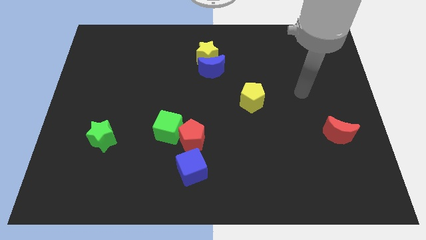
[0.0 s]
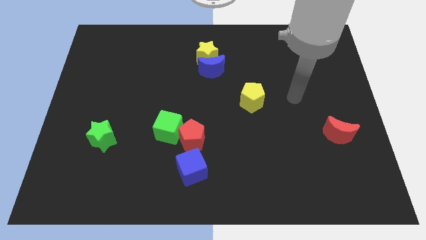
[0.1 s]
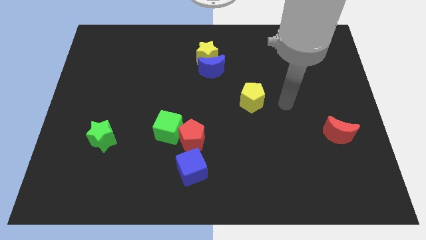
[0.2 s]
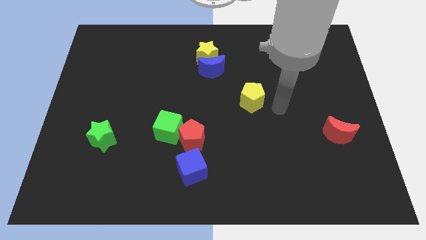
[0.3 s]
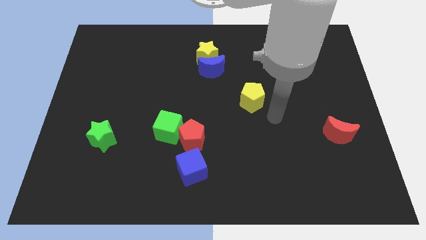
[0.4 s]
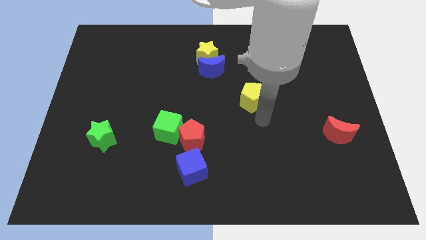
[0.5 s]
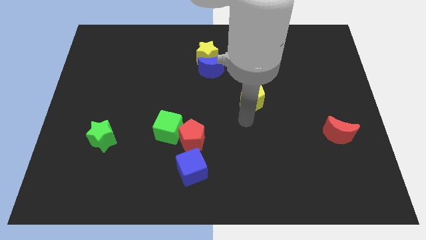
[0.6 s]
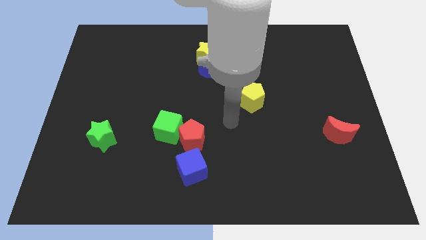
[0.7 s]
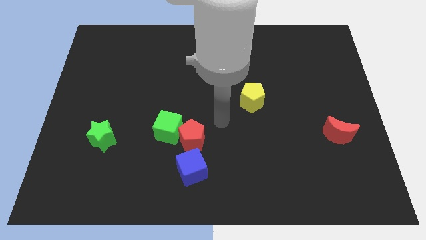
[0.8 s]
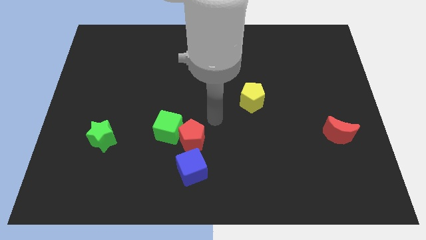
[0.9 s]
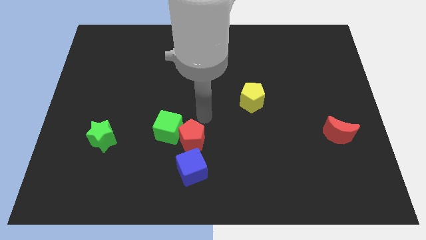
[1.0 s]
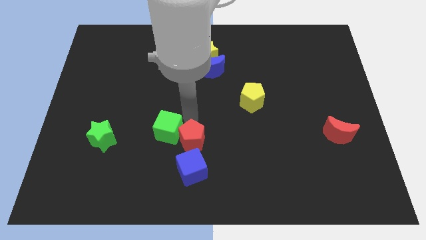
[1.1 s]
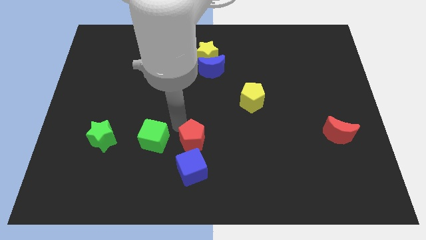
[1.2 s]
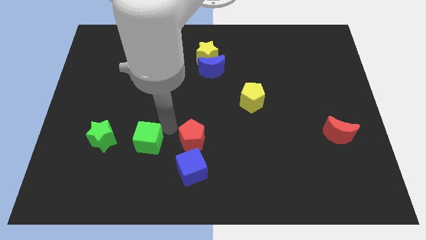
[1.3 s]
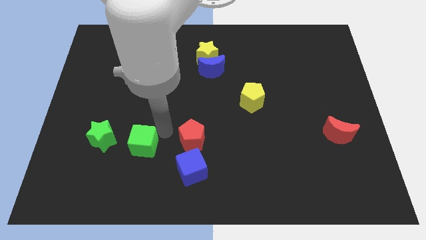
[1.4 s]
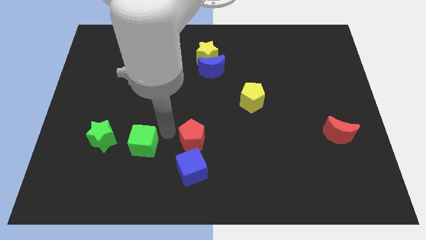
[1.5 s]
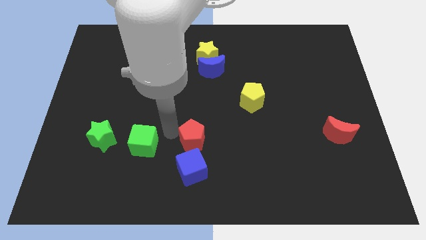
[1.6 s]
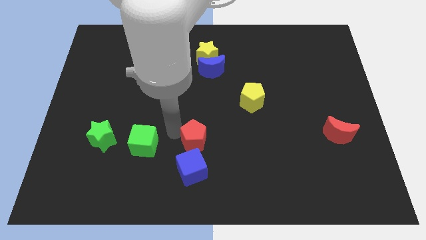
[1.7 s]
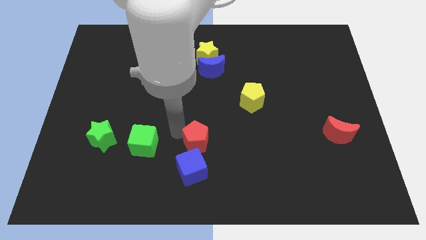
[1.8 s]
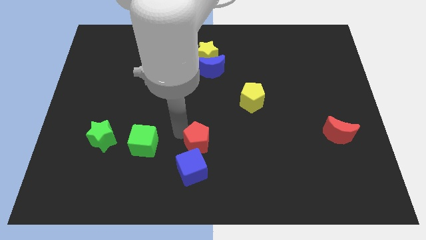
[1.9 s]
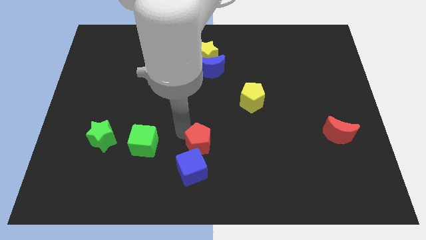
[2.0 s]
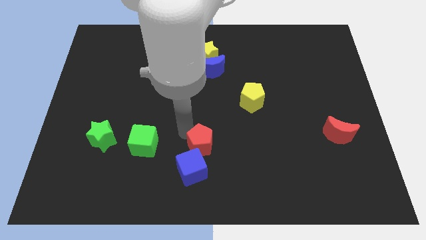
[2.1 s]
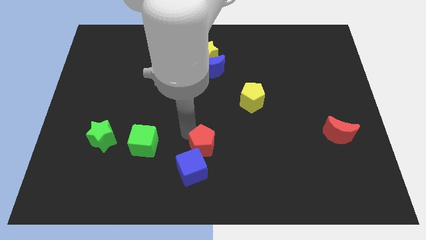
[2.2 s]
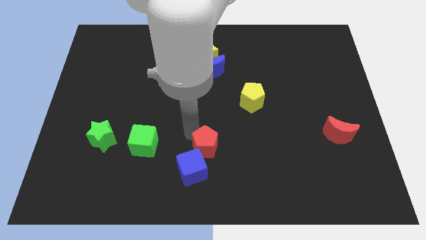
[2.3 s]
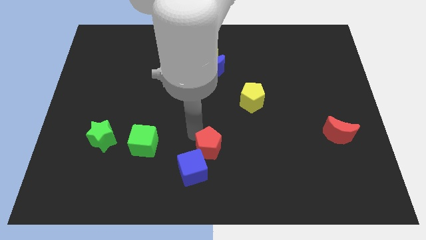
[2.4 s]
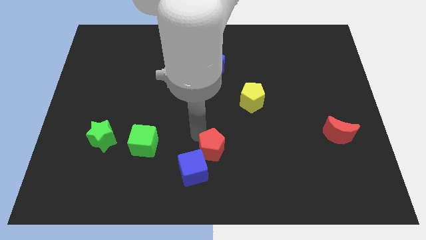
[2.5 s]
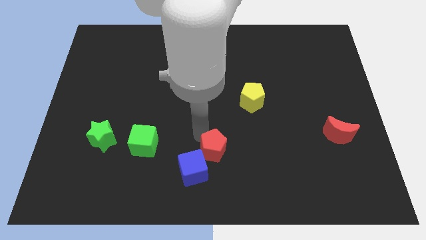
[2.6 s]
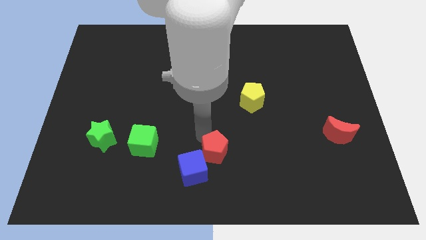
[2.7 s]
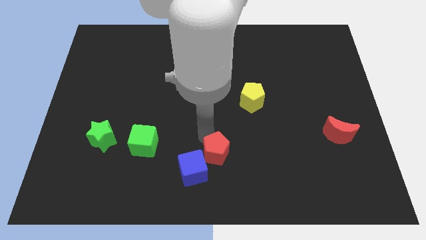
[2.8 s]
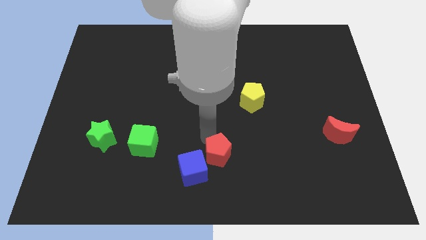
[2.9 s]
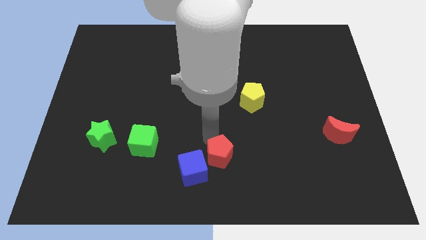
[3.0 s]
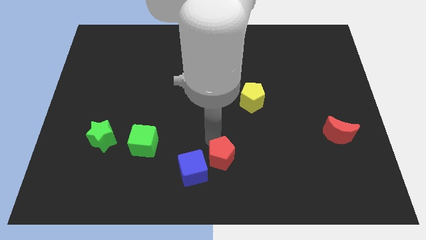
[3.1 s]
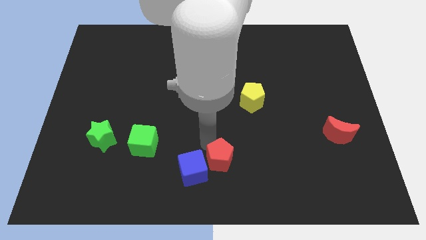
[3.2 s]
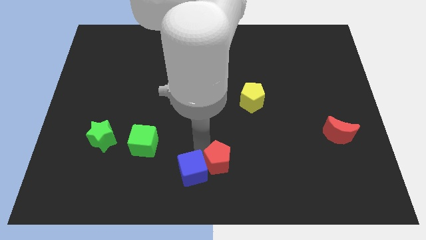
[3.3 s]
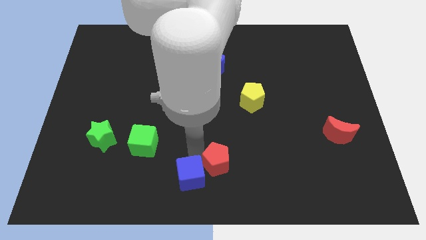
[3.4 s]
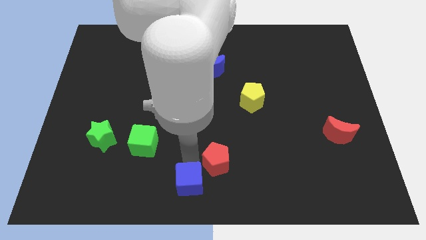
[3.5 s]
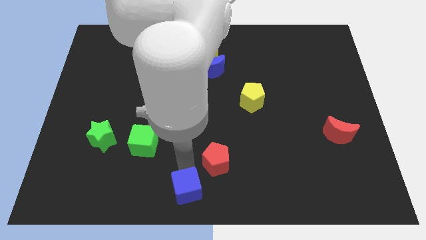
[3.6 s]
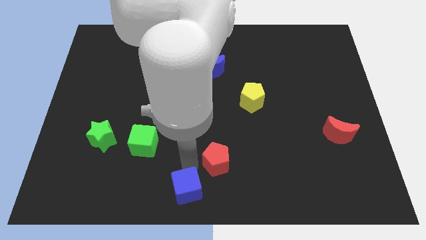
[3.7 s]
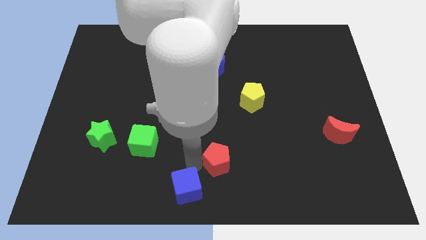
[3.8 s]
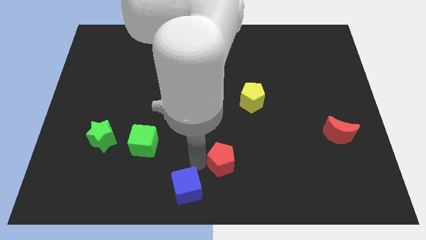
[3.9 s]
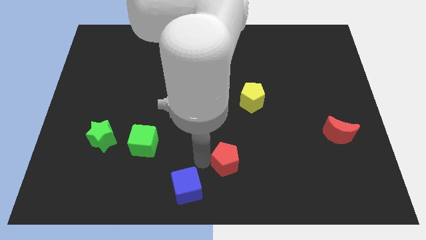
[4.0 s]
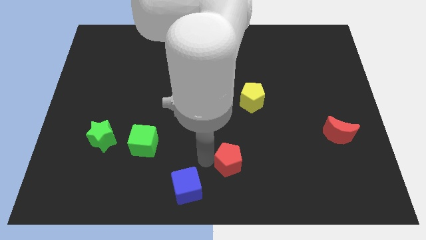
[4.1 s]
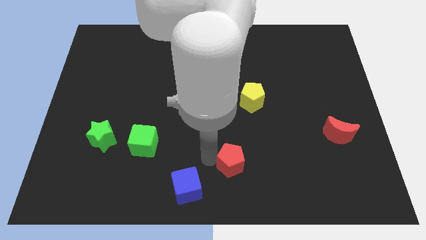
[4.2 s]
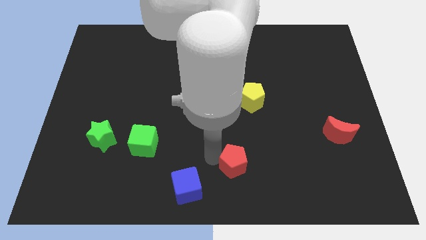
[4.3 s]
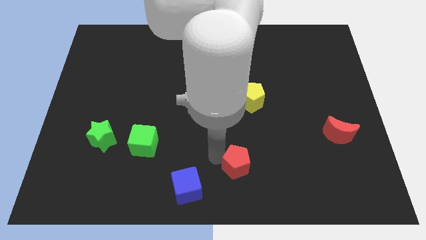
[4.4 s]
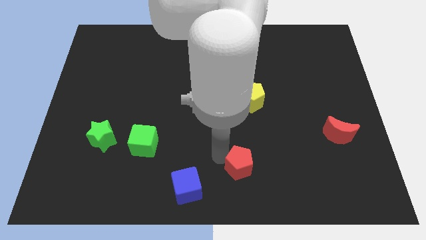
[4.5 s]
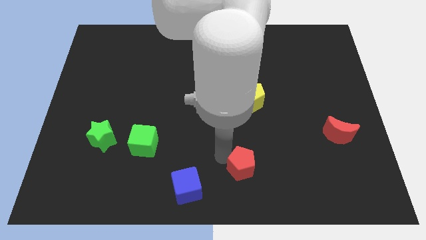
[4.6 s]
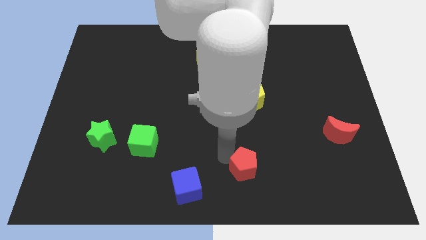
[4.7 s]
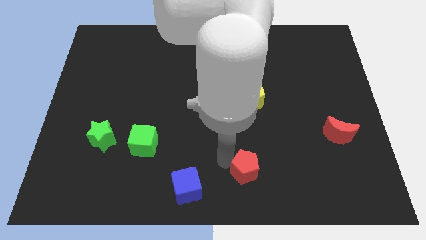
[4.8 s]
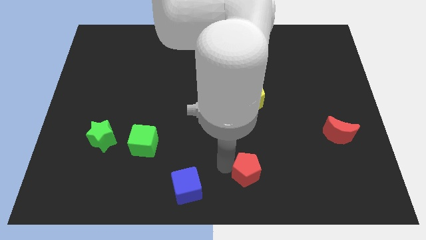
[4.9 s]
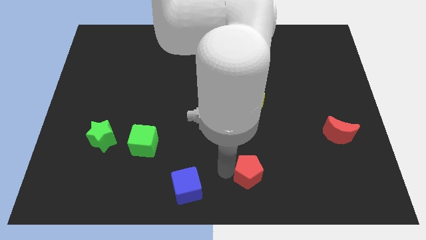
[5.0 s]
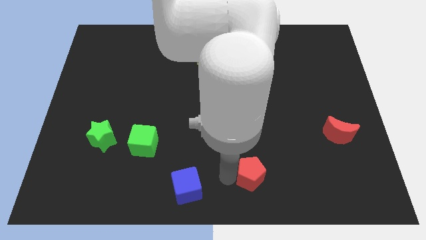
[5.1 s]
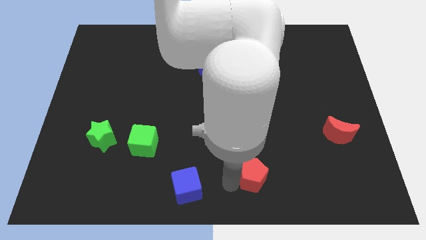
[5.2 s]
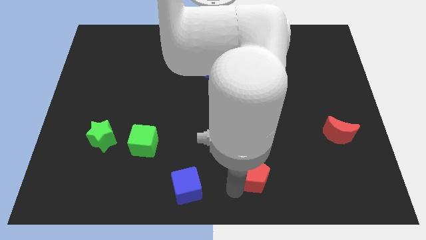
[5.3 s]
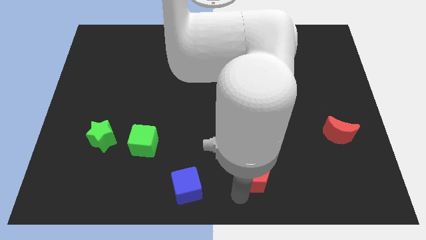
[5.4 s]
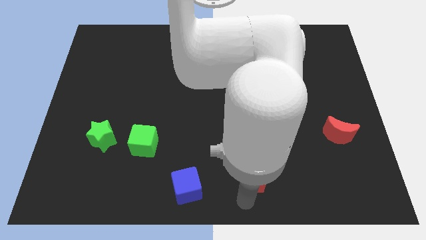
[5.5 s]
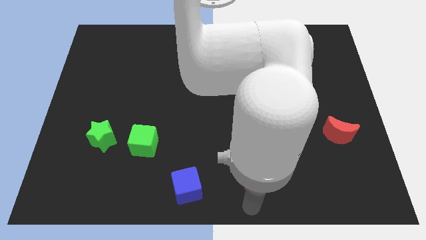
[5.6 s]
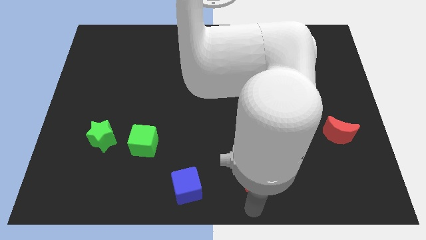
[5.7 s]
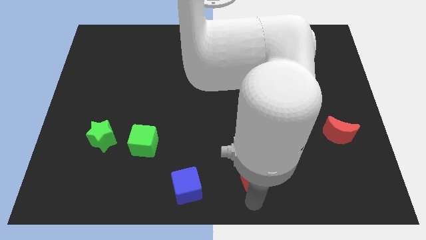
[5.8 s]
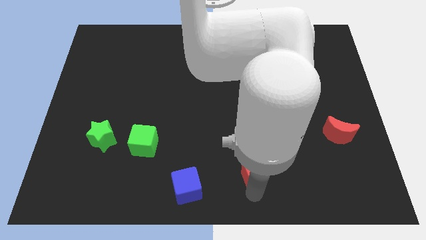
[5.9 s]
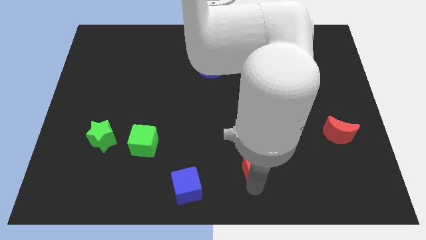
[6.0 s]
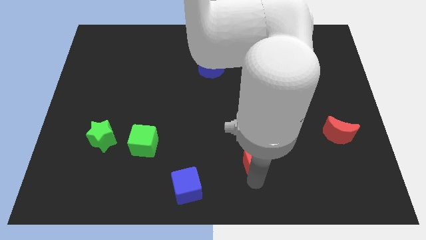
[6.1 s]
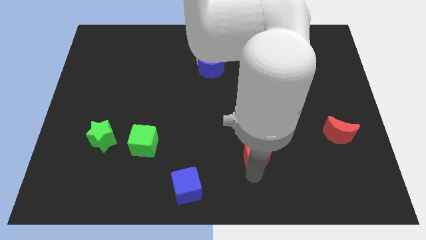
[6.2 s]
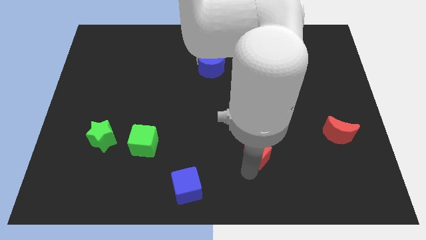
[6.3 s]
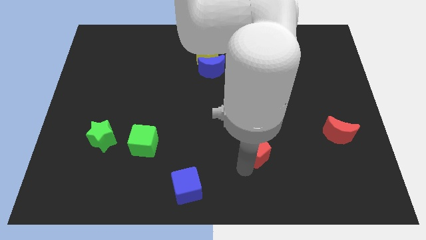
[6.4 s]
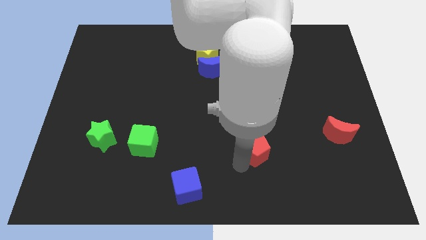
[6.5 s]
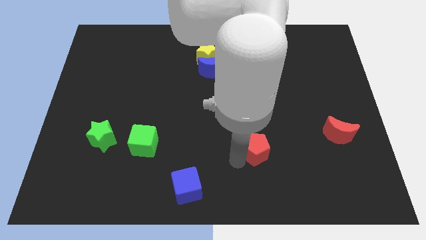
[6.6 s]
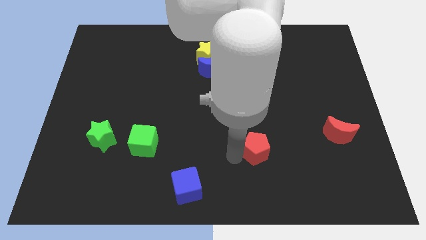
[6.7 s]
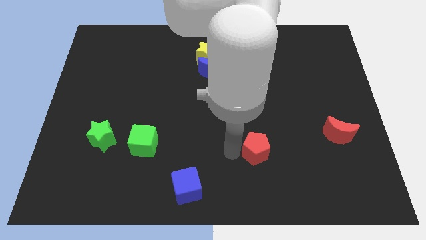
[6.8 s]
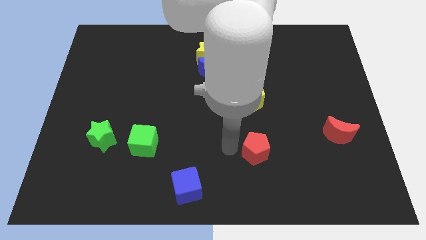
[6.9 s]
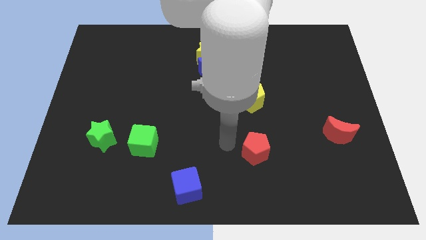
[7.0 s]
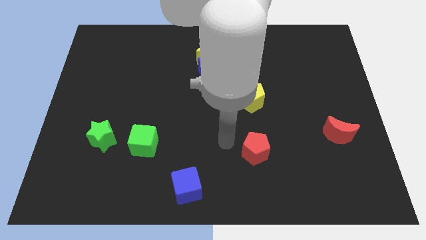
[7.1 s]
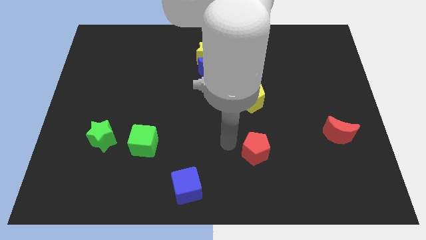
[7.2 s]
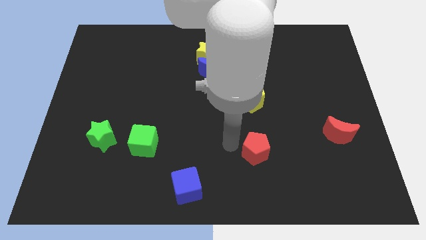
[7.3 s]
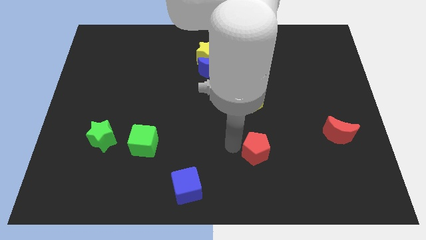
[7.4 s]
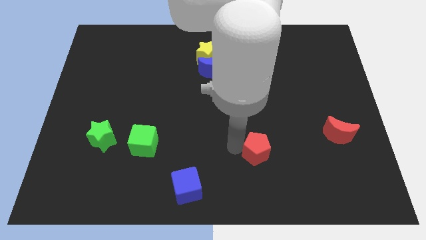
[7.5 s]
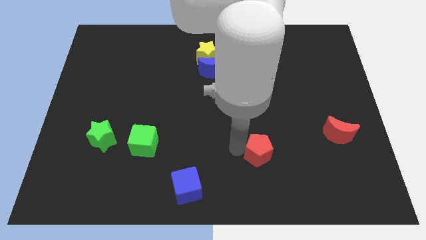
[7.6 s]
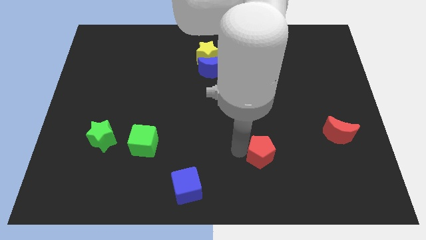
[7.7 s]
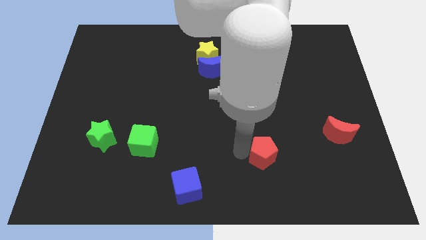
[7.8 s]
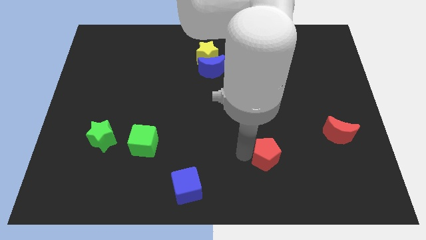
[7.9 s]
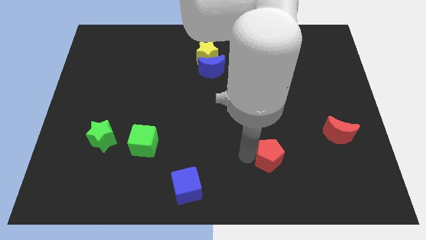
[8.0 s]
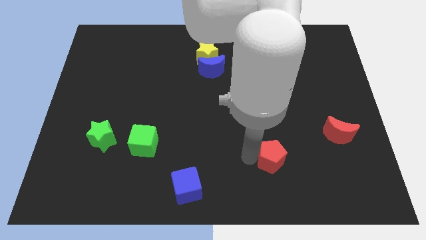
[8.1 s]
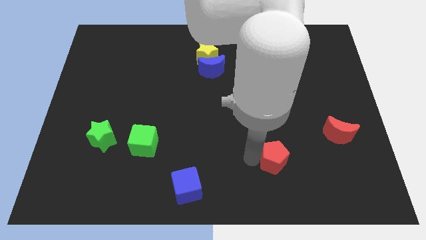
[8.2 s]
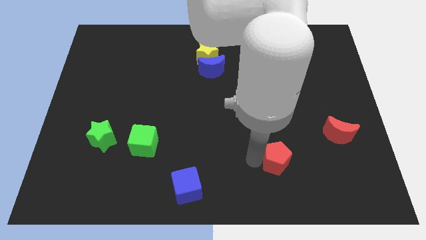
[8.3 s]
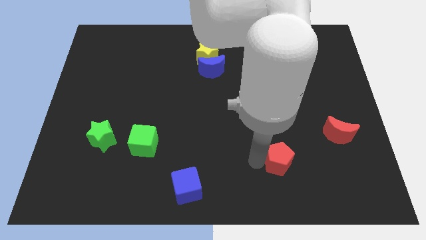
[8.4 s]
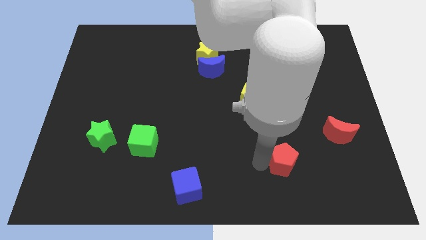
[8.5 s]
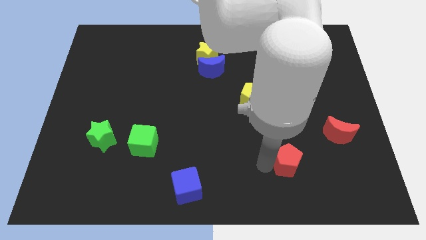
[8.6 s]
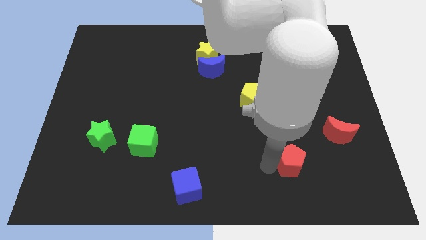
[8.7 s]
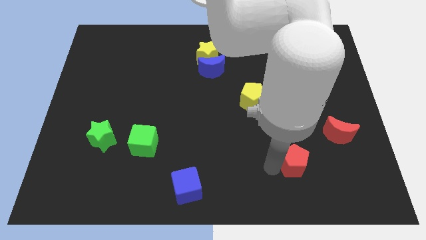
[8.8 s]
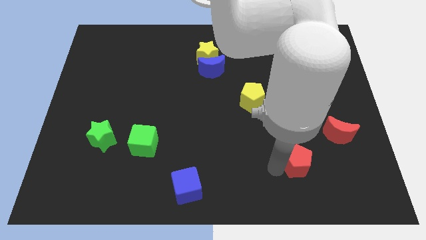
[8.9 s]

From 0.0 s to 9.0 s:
put the red pentagon to the bottom left side of the red moon
